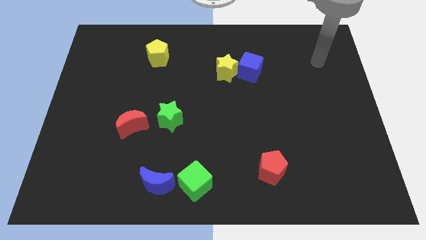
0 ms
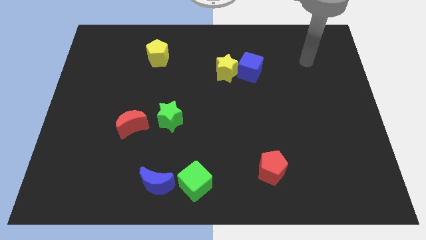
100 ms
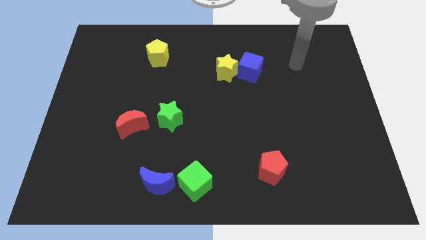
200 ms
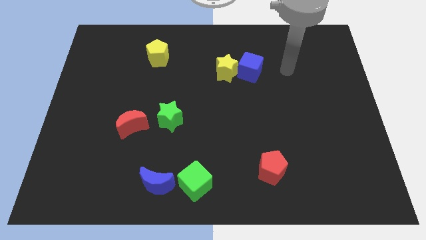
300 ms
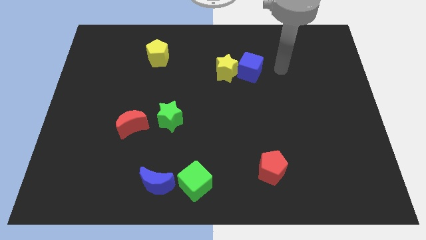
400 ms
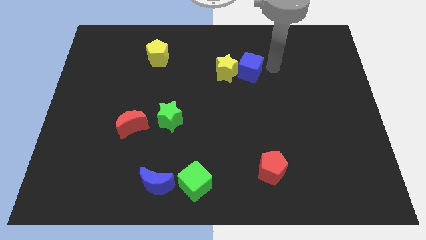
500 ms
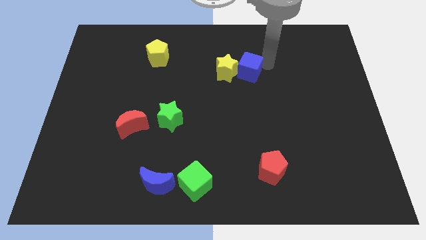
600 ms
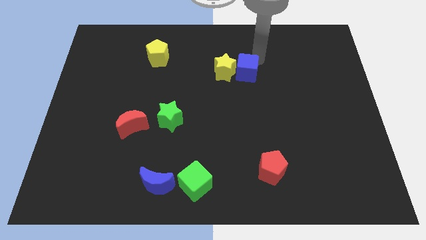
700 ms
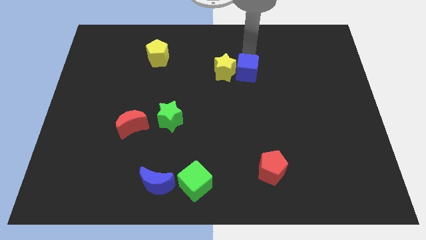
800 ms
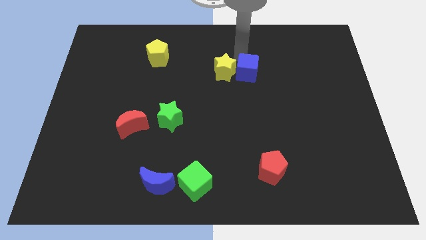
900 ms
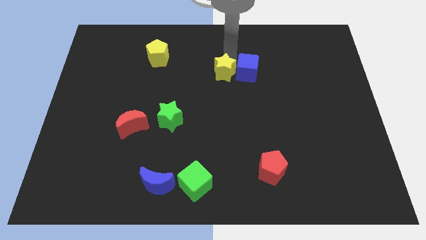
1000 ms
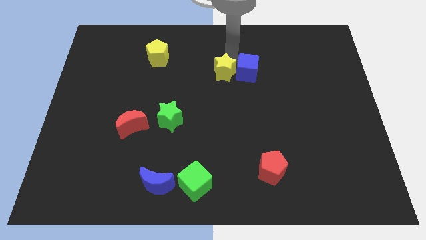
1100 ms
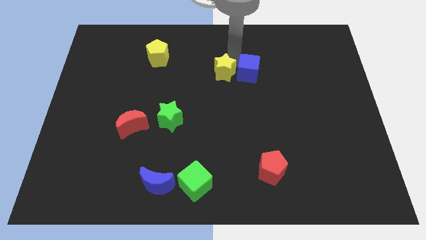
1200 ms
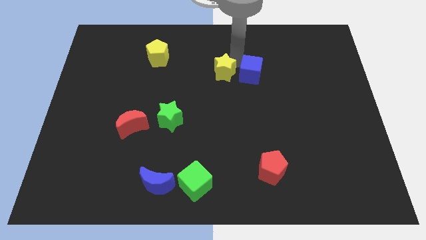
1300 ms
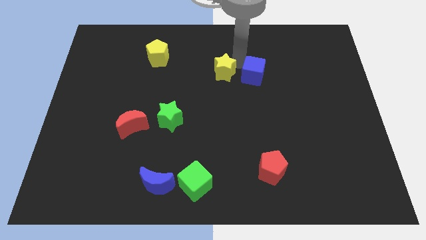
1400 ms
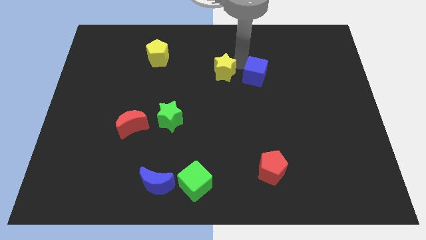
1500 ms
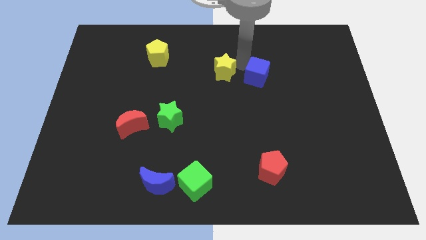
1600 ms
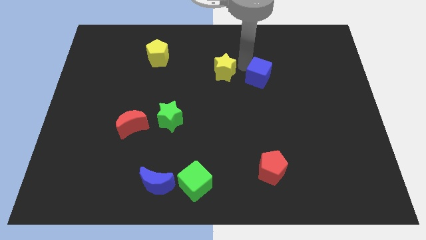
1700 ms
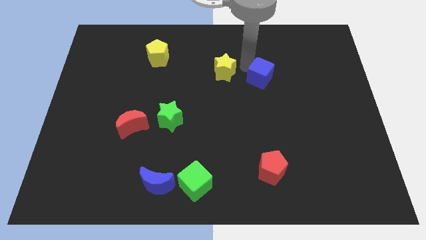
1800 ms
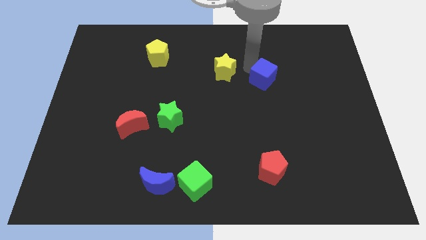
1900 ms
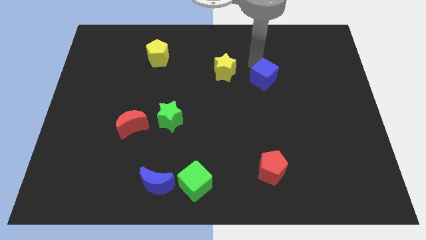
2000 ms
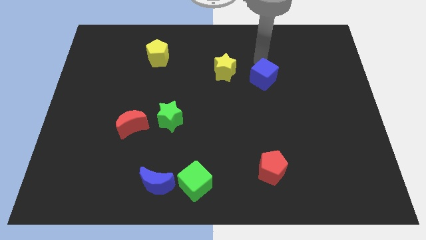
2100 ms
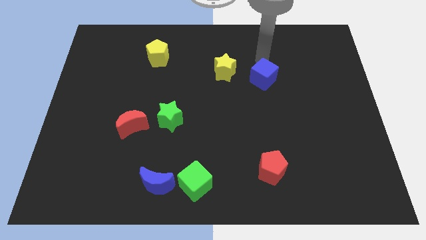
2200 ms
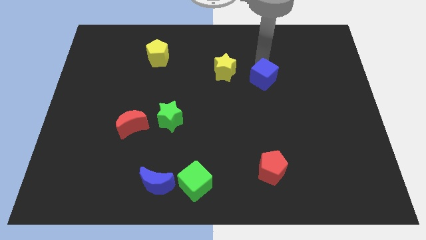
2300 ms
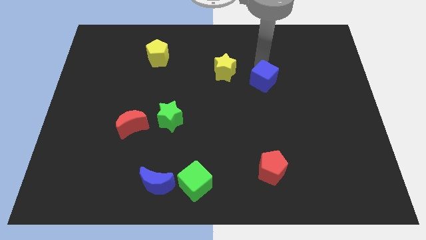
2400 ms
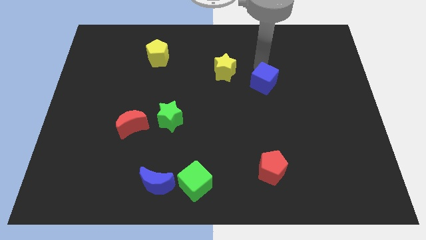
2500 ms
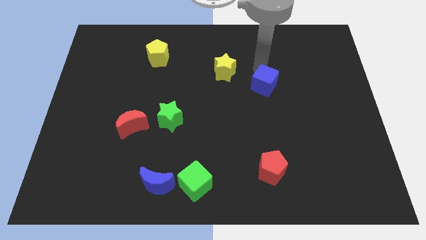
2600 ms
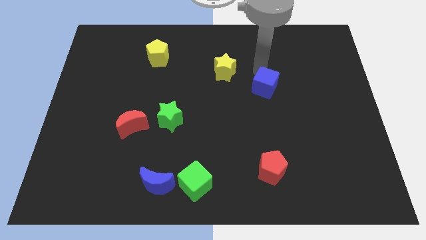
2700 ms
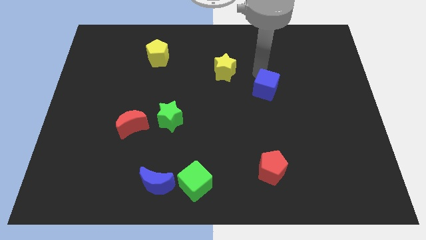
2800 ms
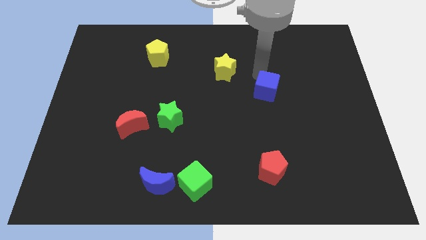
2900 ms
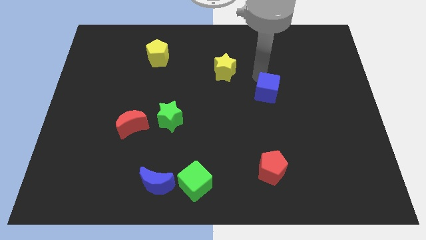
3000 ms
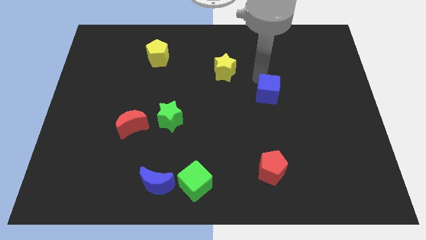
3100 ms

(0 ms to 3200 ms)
push the blue cube down a little

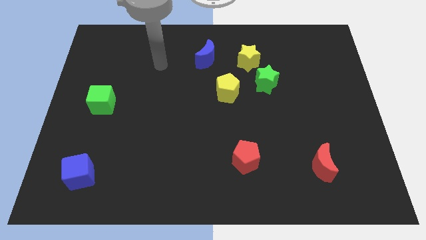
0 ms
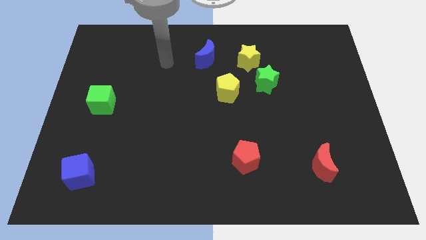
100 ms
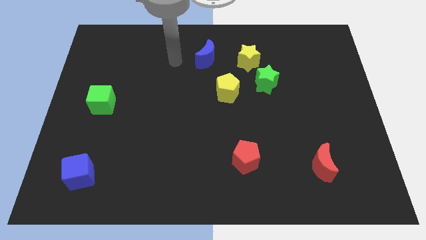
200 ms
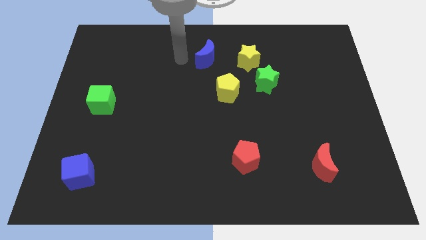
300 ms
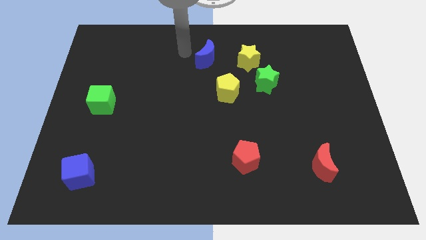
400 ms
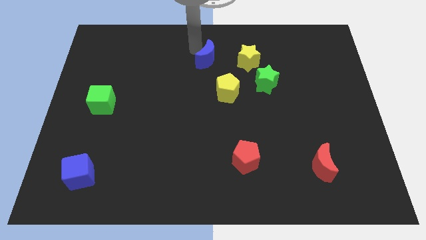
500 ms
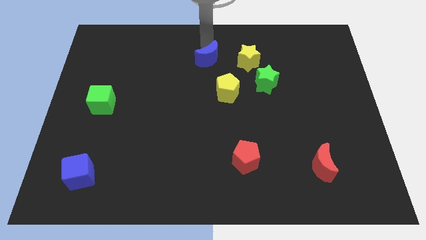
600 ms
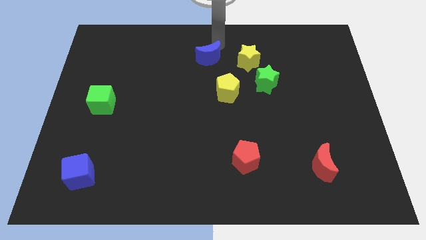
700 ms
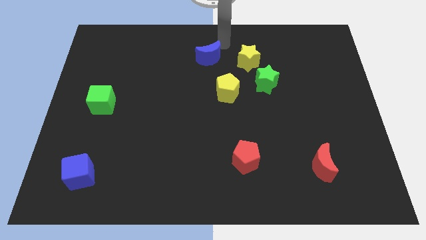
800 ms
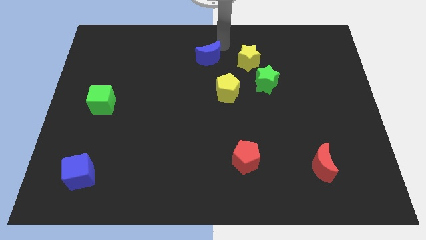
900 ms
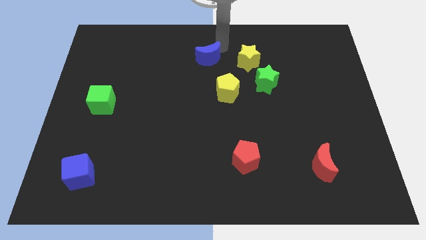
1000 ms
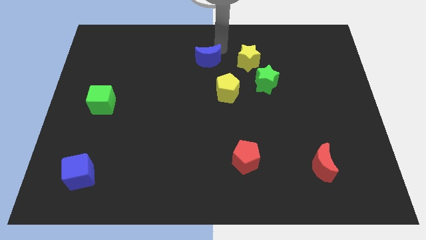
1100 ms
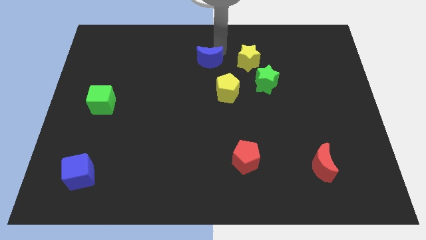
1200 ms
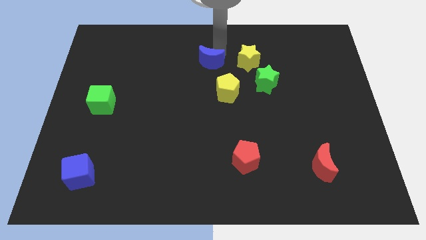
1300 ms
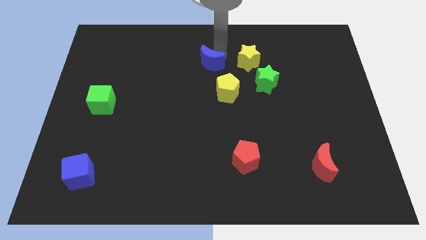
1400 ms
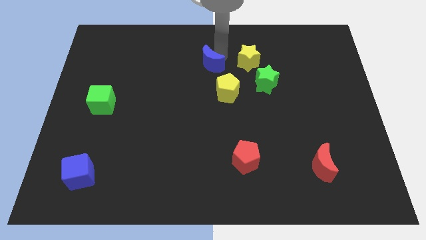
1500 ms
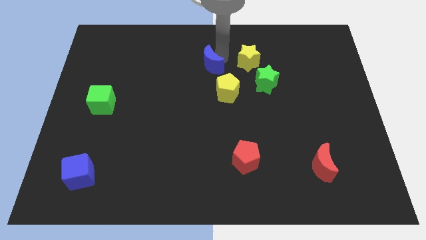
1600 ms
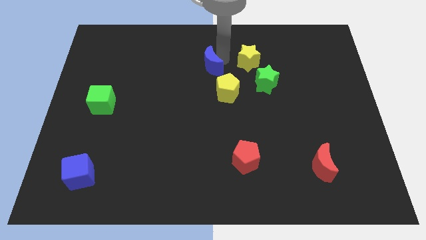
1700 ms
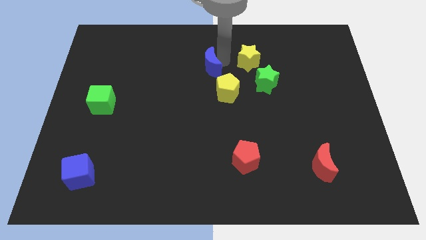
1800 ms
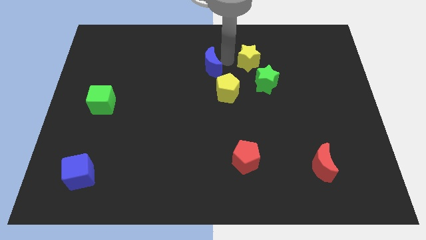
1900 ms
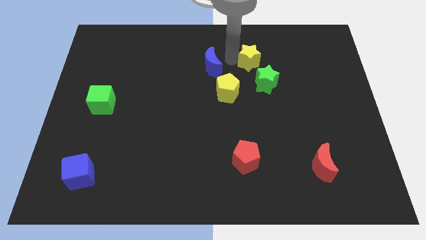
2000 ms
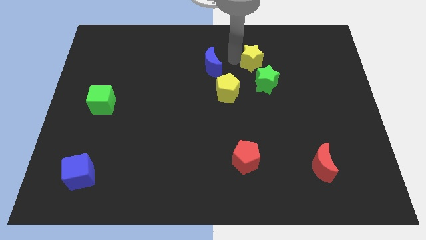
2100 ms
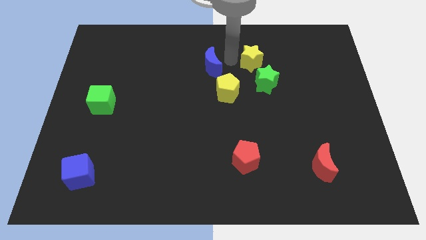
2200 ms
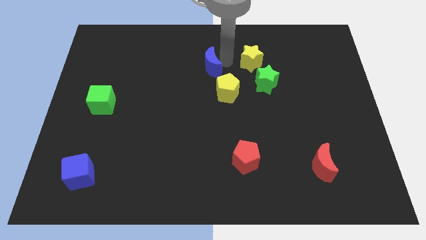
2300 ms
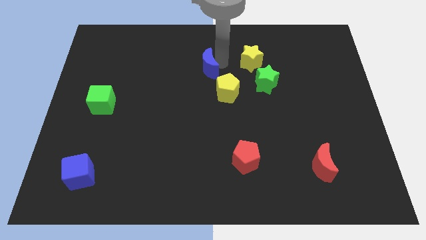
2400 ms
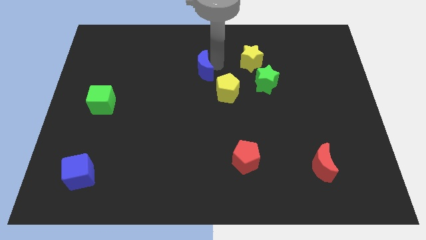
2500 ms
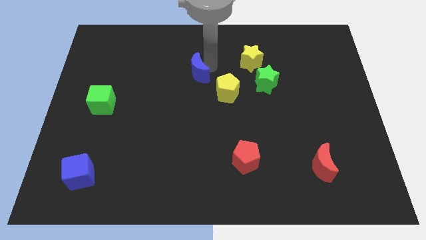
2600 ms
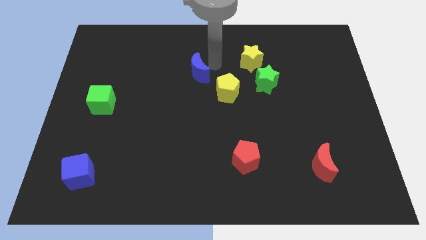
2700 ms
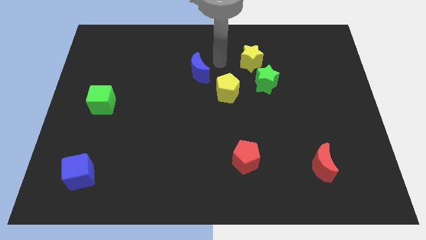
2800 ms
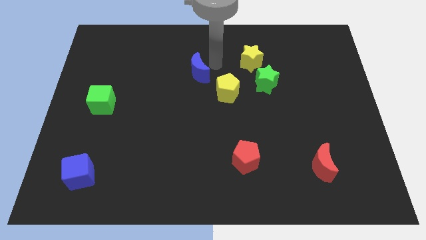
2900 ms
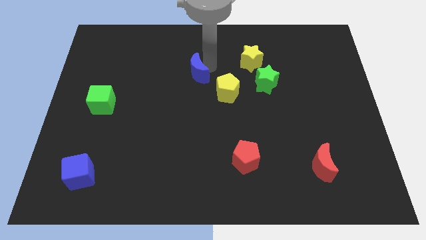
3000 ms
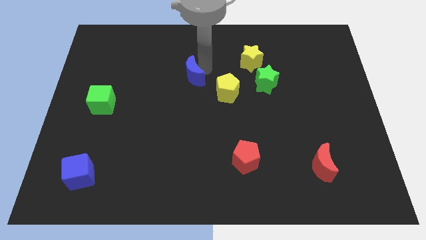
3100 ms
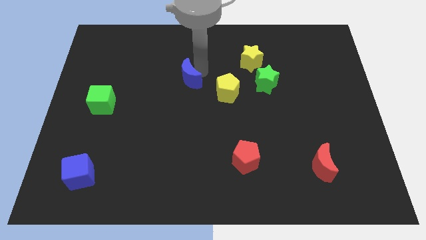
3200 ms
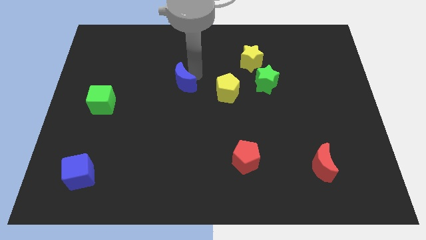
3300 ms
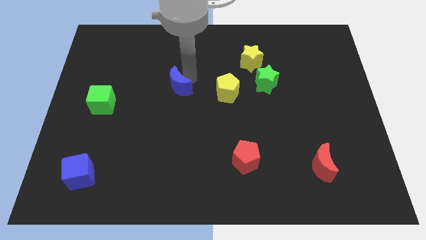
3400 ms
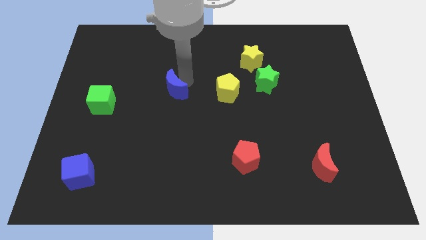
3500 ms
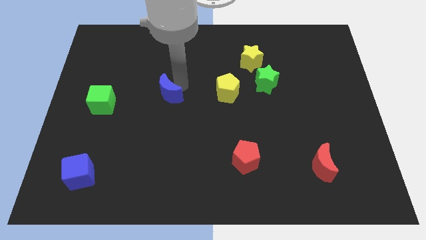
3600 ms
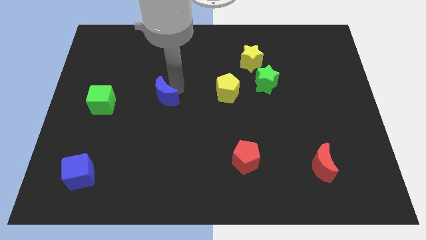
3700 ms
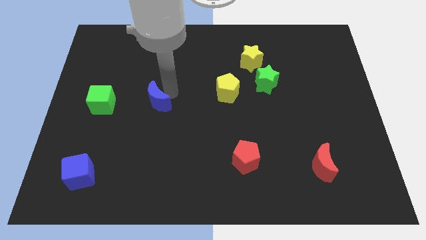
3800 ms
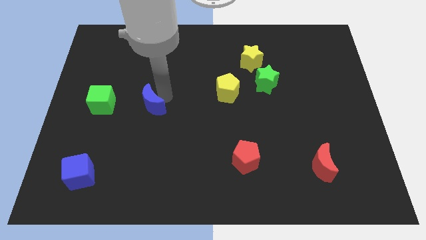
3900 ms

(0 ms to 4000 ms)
push the blue moon downwards and left diagonally

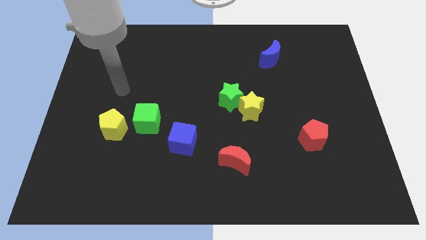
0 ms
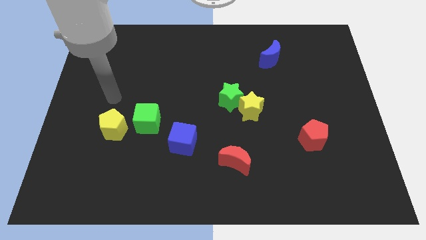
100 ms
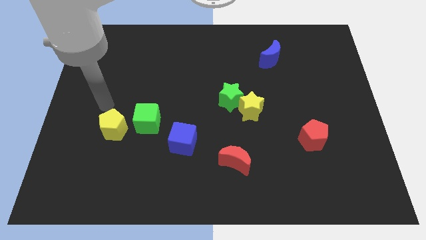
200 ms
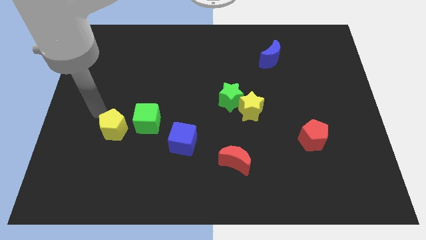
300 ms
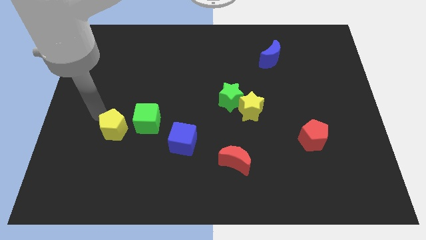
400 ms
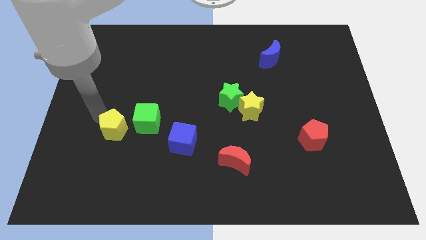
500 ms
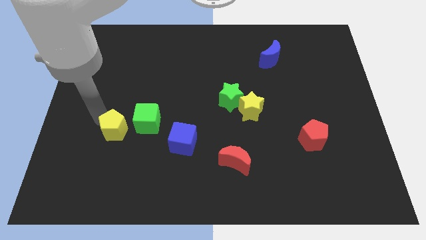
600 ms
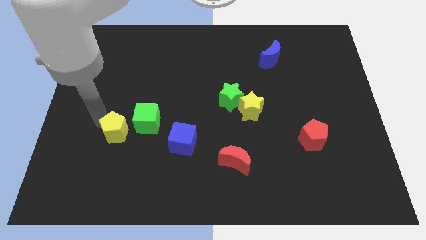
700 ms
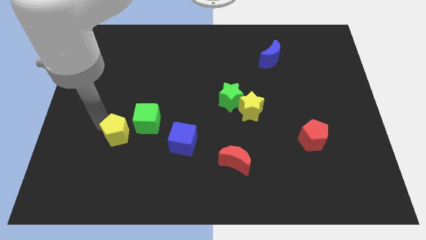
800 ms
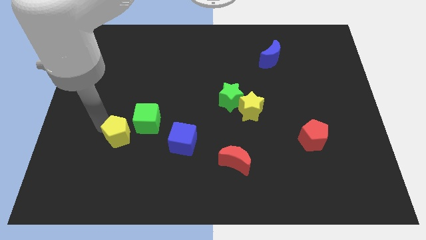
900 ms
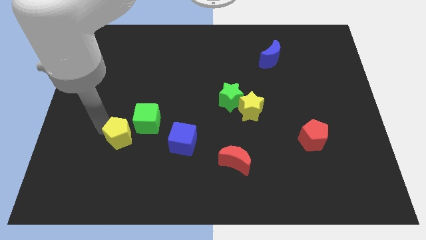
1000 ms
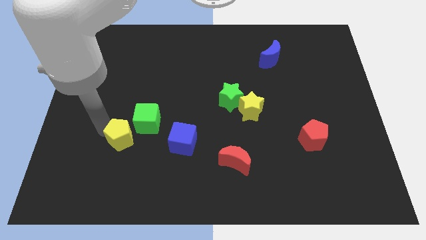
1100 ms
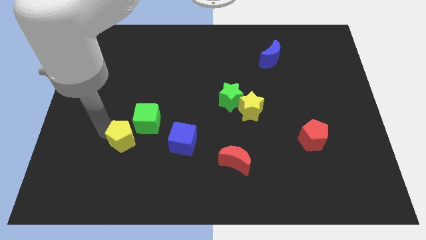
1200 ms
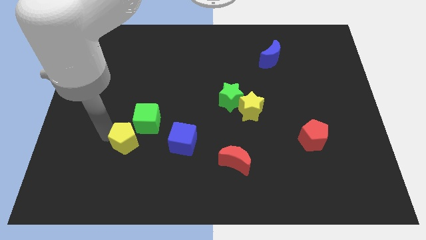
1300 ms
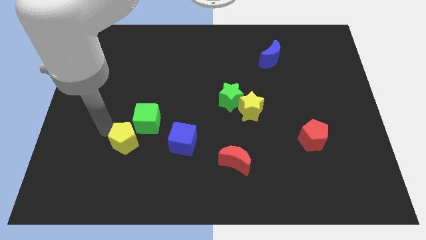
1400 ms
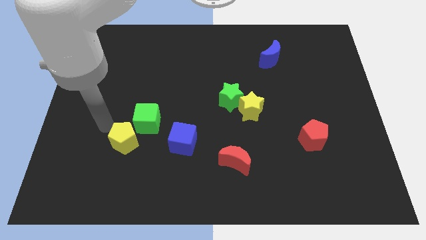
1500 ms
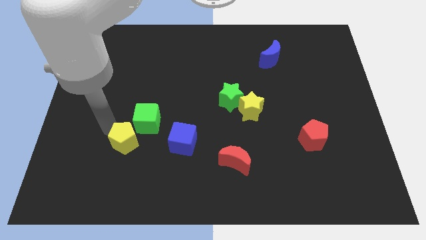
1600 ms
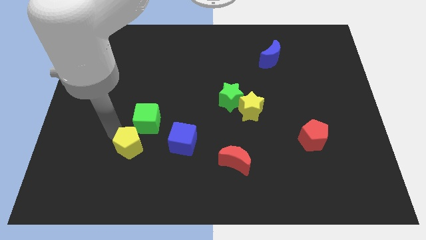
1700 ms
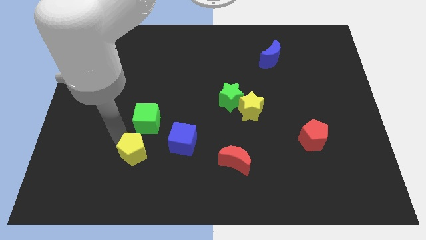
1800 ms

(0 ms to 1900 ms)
move the yellow pentagon diagonally downwards and to the right a bit
